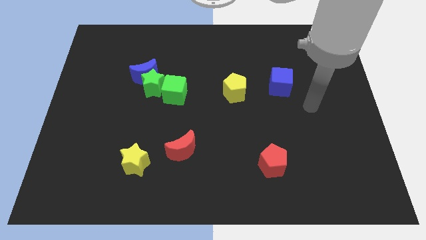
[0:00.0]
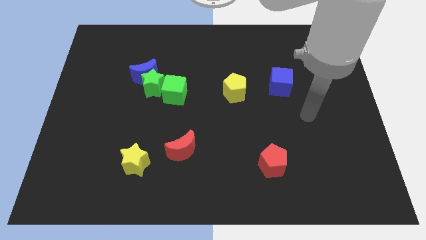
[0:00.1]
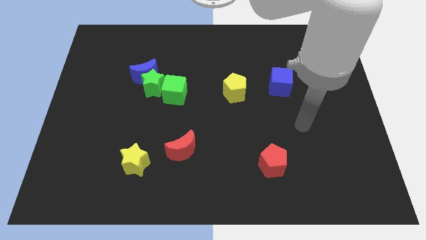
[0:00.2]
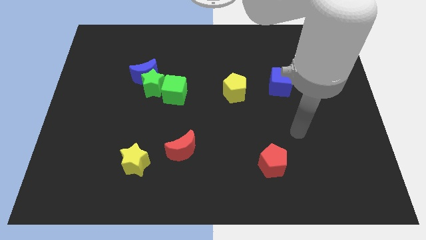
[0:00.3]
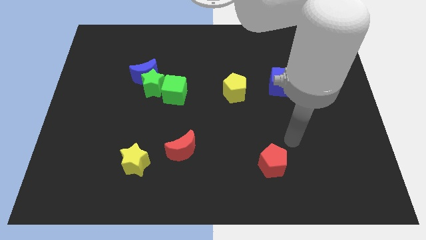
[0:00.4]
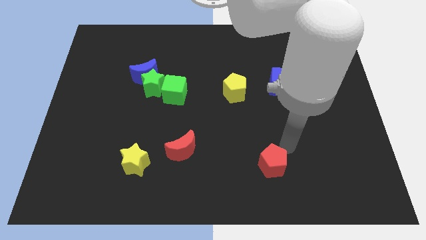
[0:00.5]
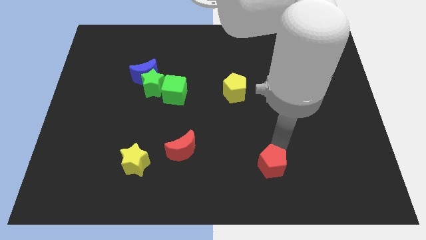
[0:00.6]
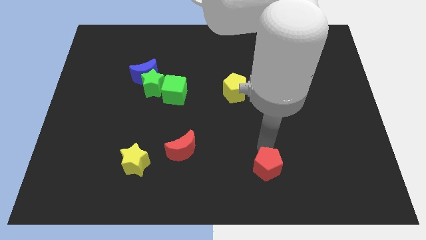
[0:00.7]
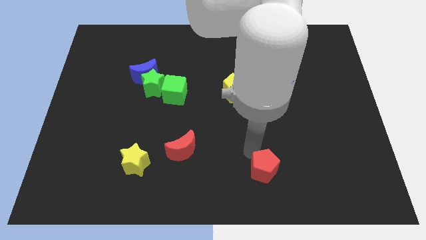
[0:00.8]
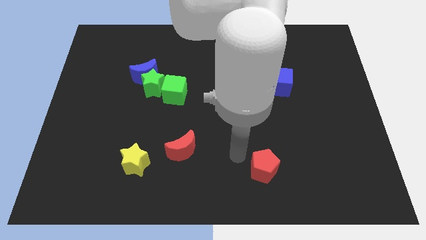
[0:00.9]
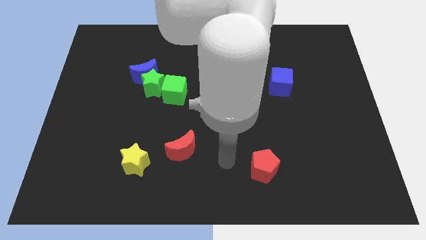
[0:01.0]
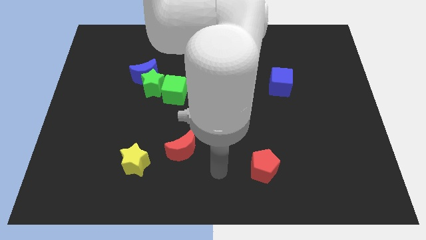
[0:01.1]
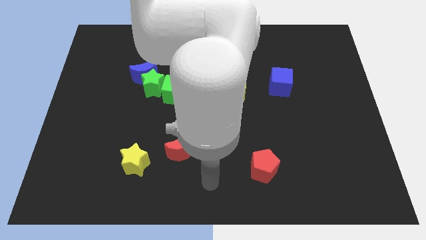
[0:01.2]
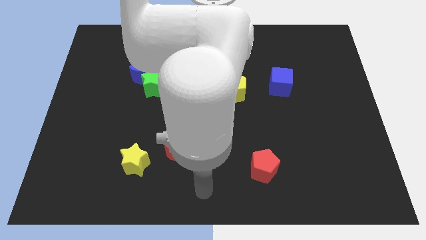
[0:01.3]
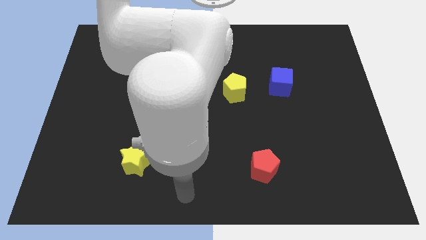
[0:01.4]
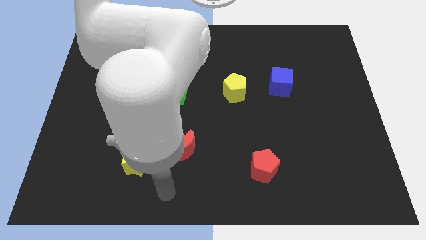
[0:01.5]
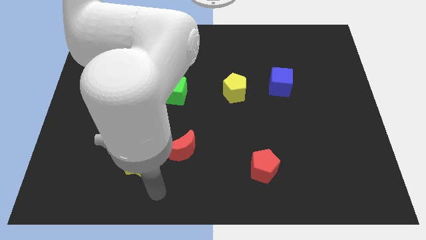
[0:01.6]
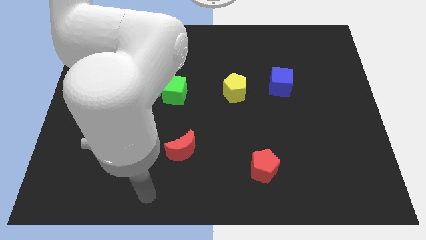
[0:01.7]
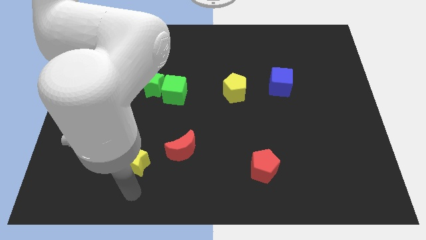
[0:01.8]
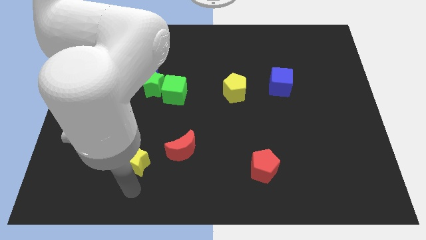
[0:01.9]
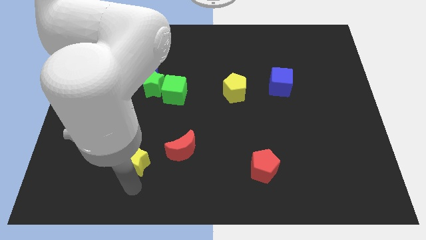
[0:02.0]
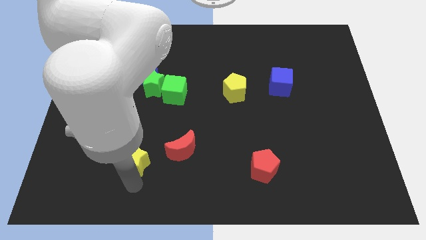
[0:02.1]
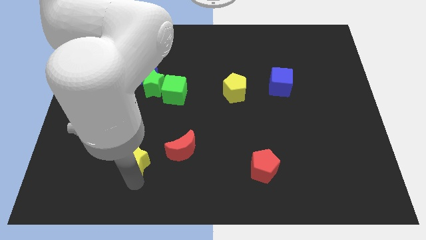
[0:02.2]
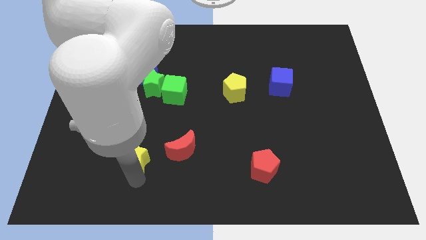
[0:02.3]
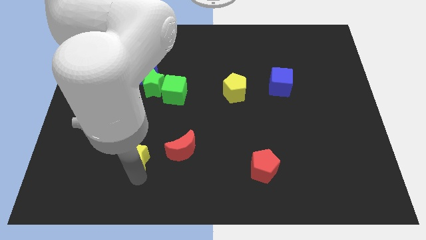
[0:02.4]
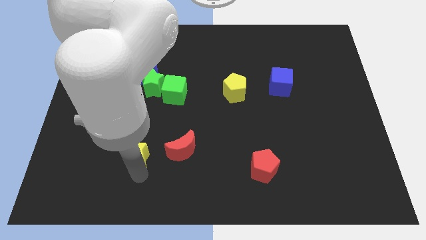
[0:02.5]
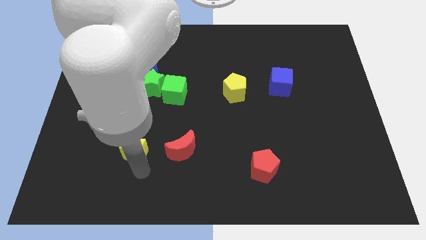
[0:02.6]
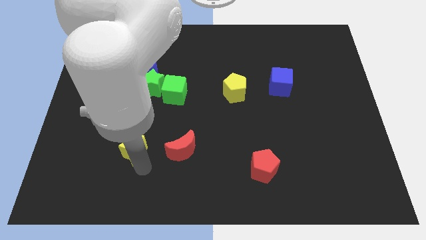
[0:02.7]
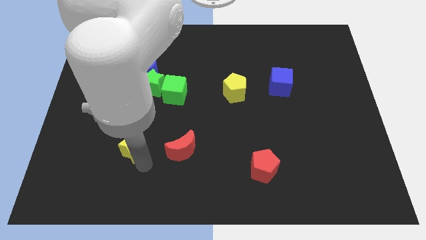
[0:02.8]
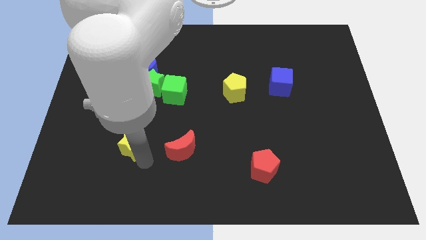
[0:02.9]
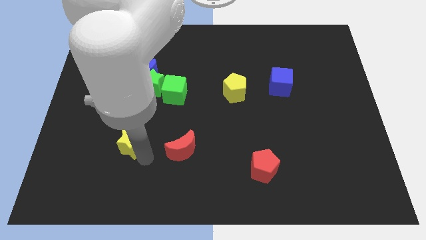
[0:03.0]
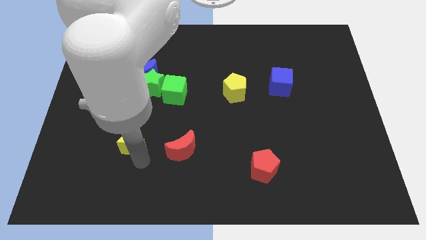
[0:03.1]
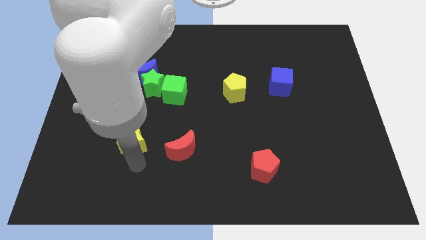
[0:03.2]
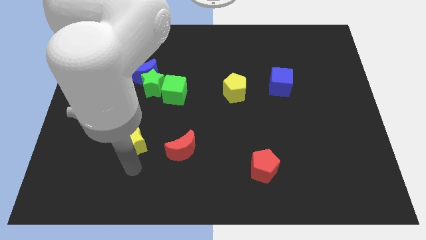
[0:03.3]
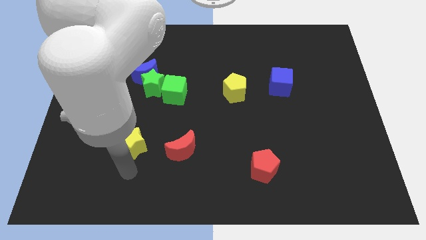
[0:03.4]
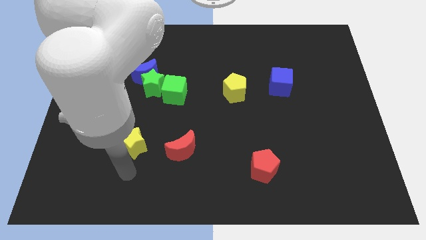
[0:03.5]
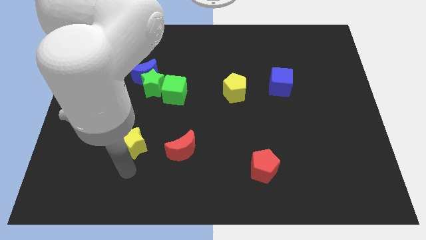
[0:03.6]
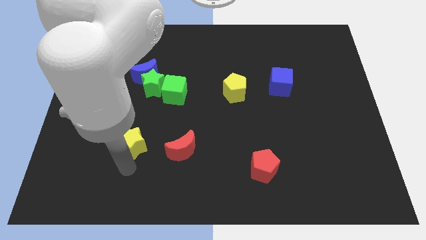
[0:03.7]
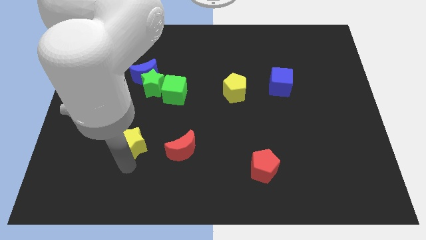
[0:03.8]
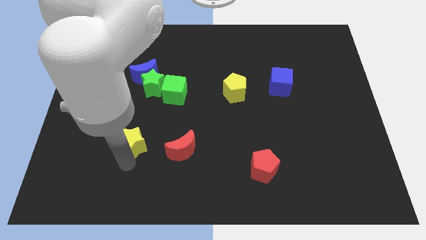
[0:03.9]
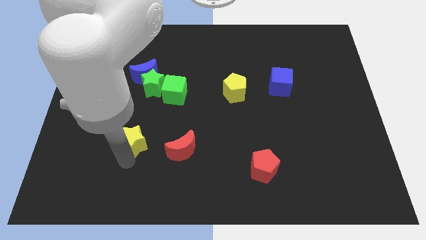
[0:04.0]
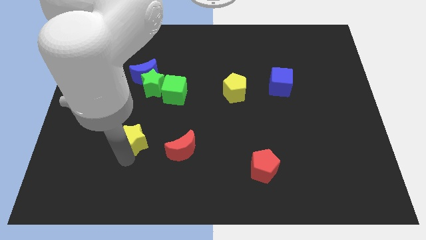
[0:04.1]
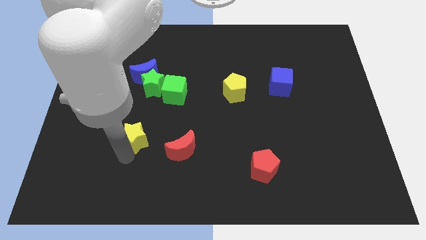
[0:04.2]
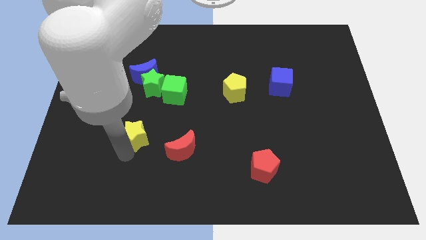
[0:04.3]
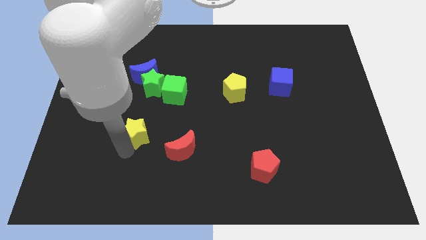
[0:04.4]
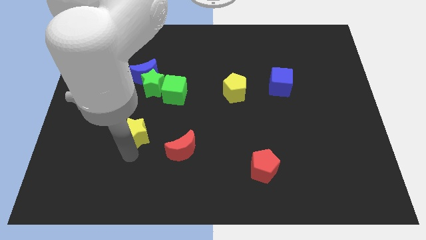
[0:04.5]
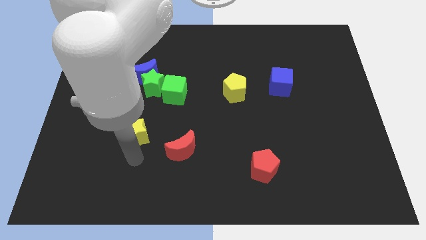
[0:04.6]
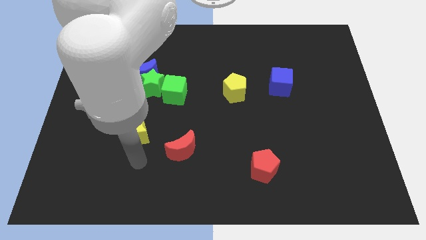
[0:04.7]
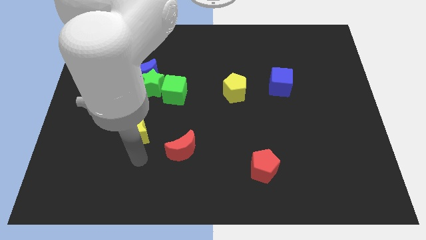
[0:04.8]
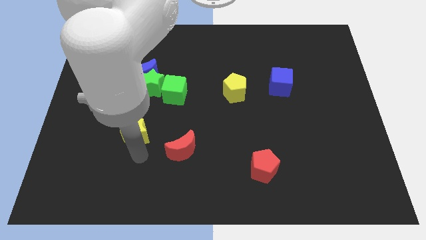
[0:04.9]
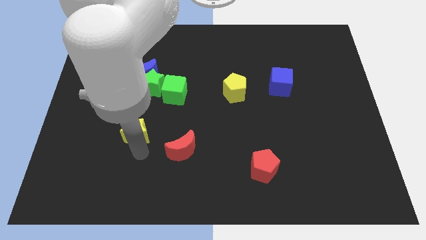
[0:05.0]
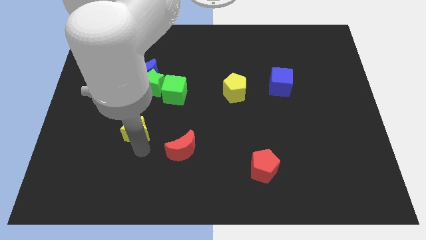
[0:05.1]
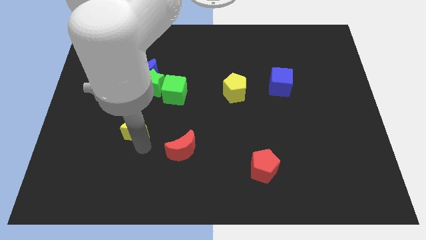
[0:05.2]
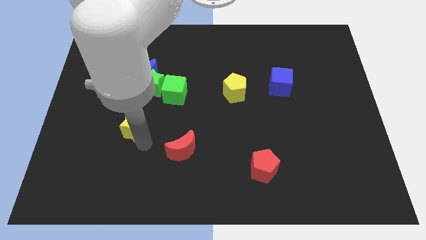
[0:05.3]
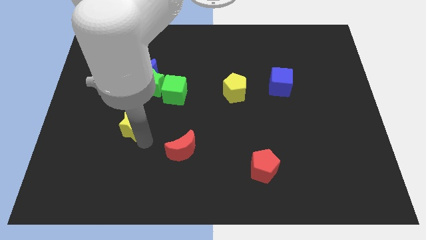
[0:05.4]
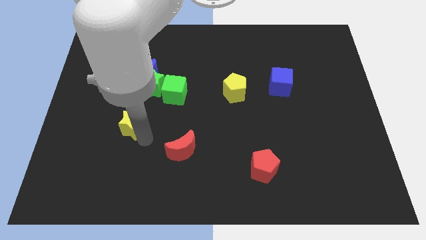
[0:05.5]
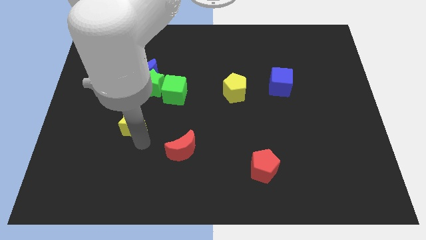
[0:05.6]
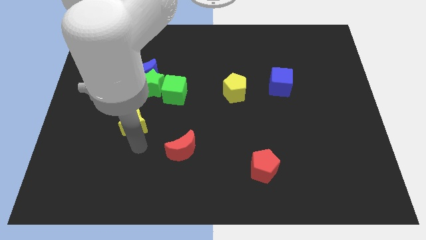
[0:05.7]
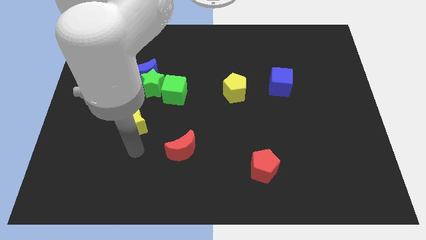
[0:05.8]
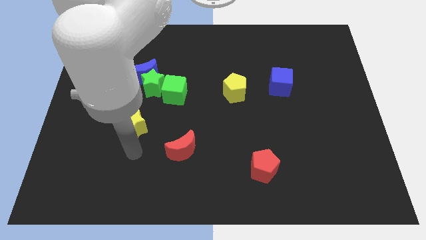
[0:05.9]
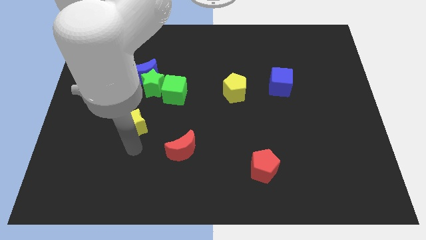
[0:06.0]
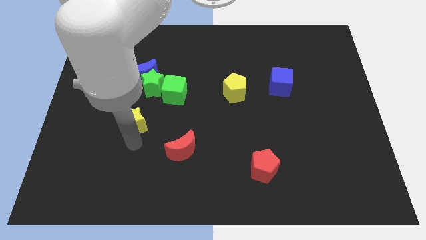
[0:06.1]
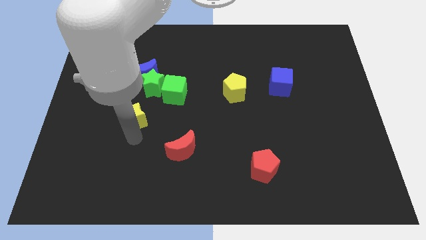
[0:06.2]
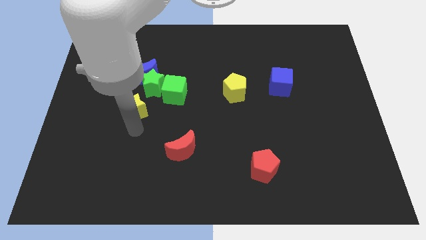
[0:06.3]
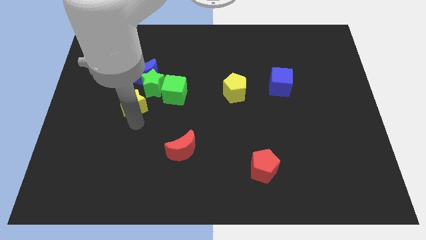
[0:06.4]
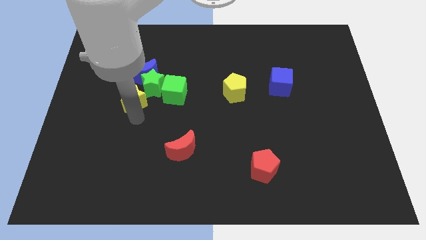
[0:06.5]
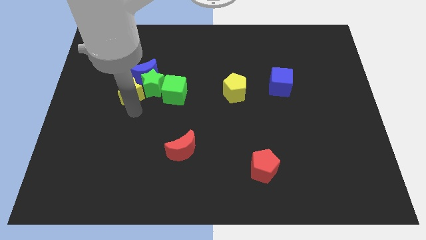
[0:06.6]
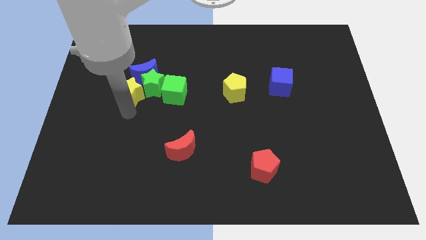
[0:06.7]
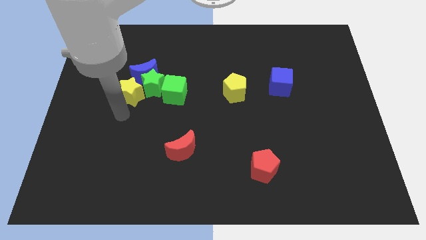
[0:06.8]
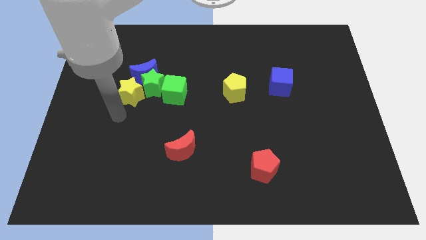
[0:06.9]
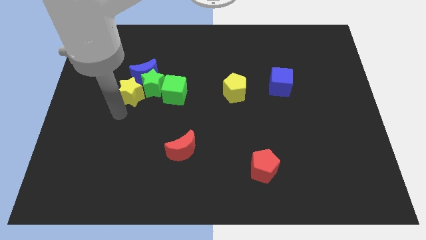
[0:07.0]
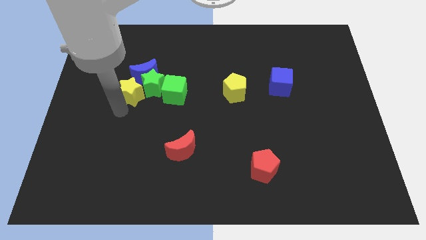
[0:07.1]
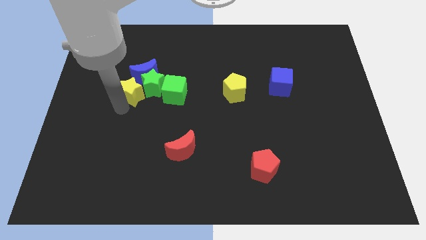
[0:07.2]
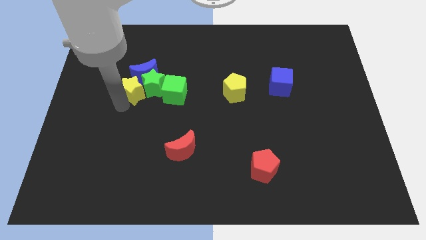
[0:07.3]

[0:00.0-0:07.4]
move the yellow star close to the blue moon
